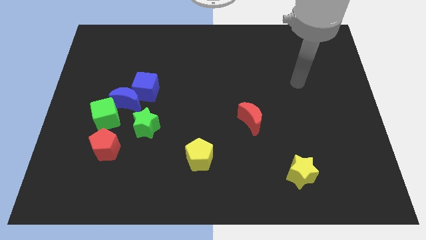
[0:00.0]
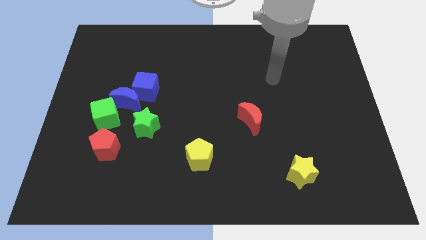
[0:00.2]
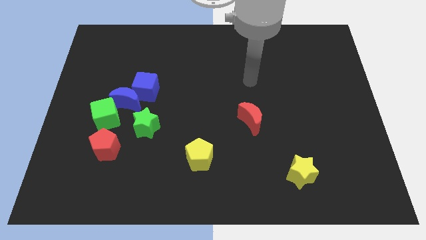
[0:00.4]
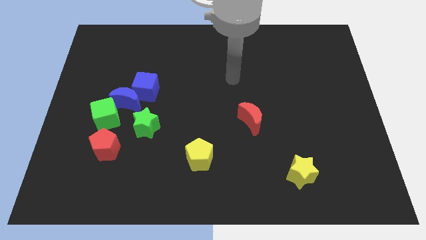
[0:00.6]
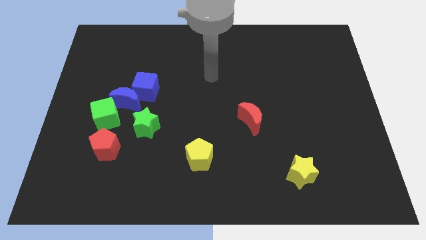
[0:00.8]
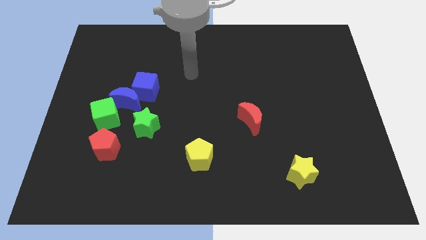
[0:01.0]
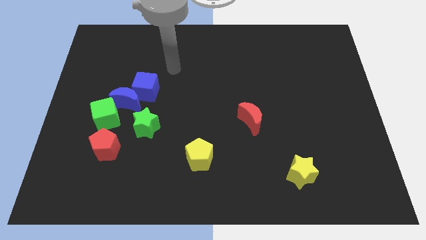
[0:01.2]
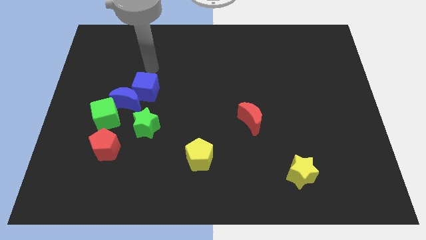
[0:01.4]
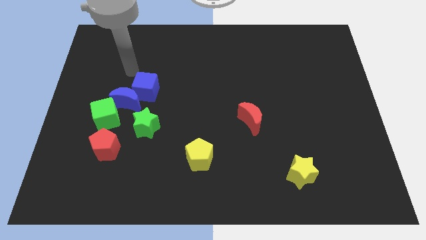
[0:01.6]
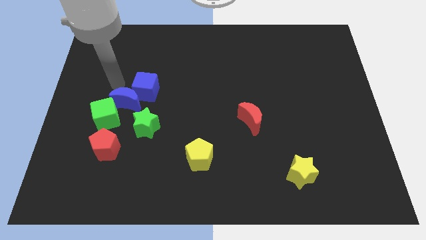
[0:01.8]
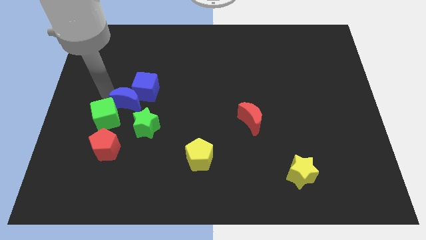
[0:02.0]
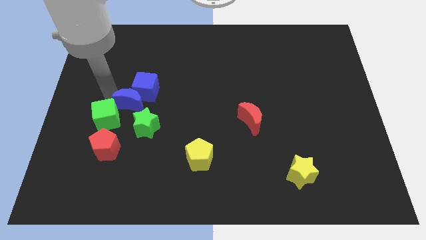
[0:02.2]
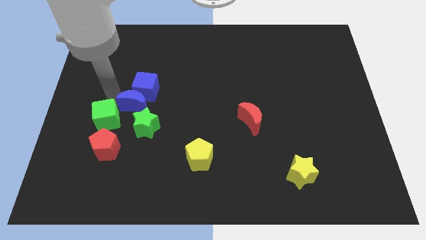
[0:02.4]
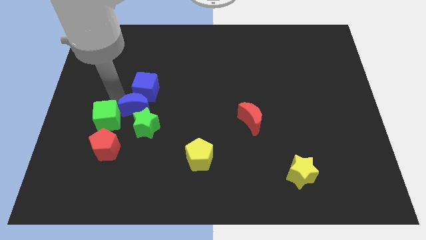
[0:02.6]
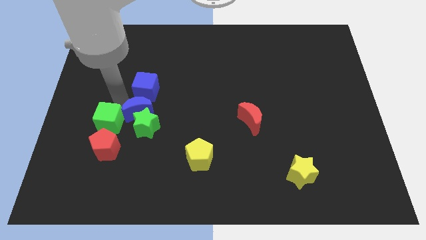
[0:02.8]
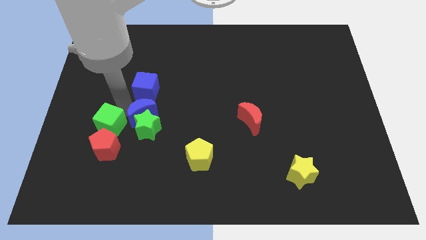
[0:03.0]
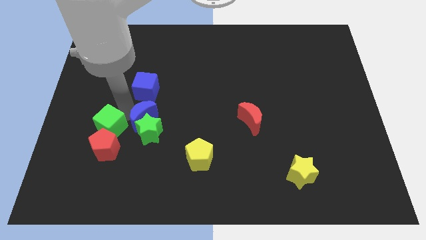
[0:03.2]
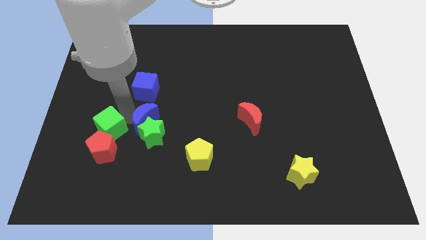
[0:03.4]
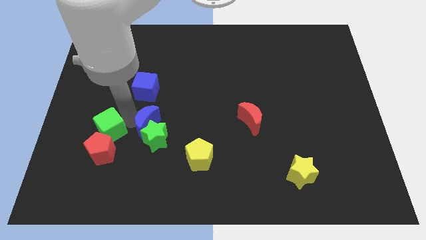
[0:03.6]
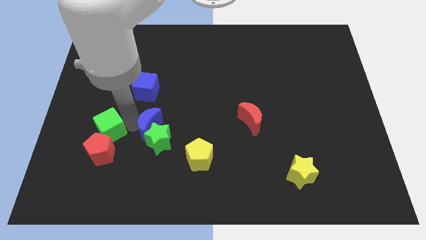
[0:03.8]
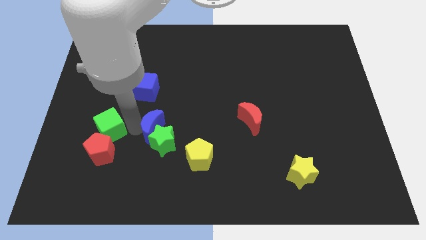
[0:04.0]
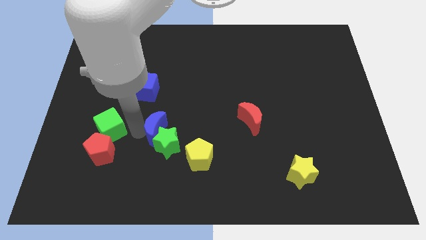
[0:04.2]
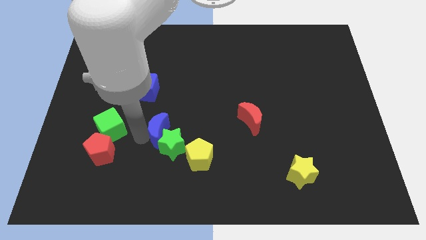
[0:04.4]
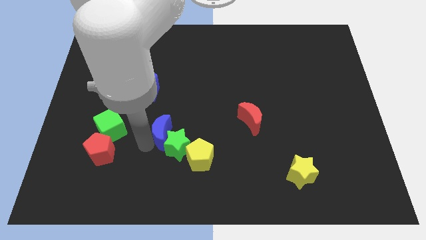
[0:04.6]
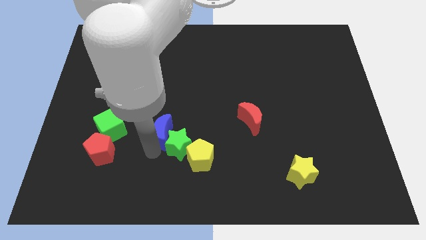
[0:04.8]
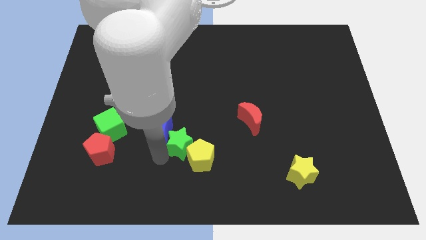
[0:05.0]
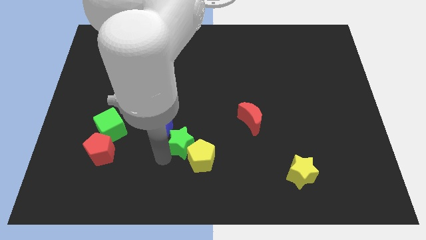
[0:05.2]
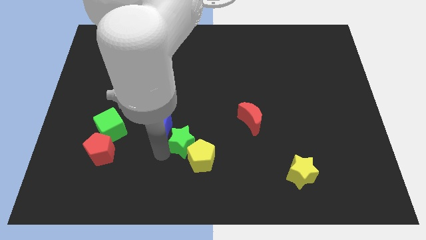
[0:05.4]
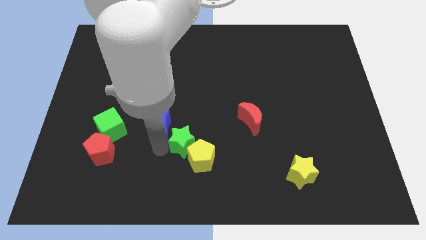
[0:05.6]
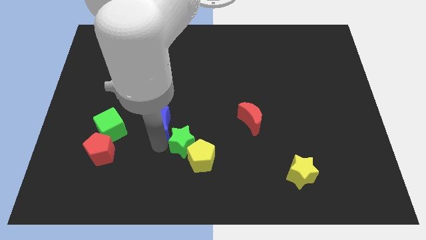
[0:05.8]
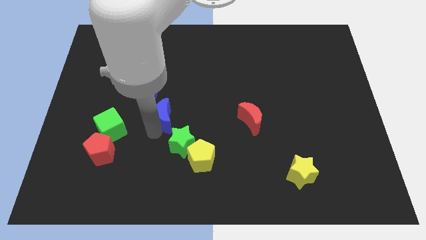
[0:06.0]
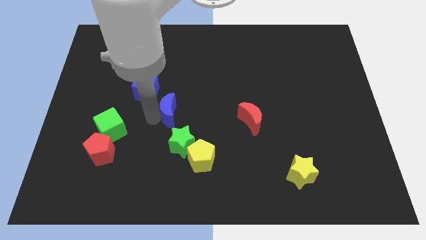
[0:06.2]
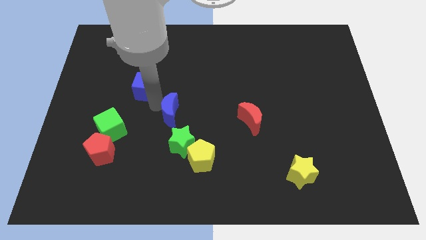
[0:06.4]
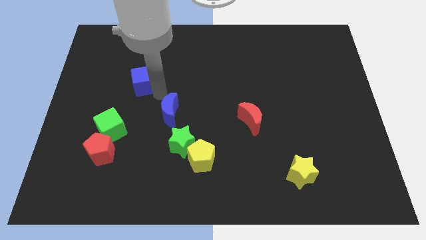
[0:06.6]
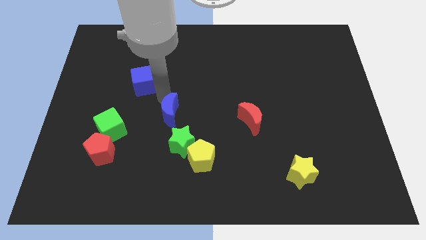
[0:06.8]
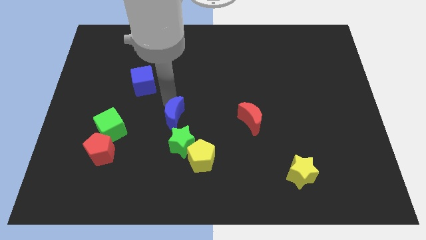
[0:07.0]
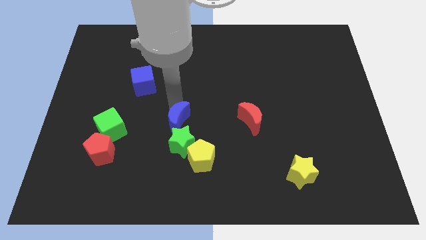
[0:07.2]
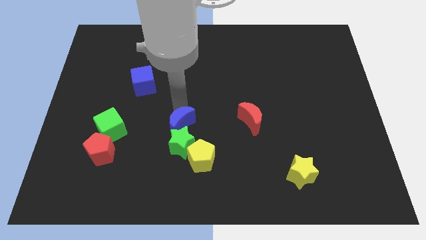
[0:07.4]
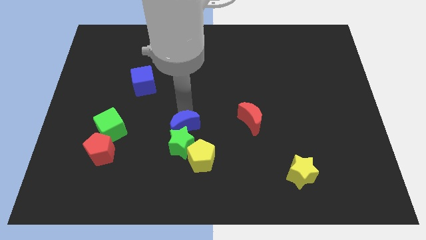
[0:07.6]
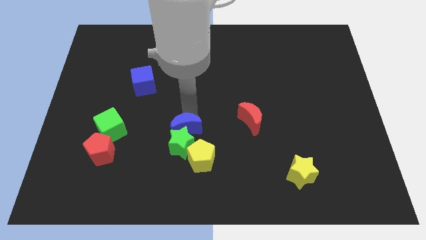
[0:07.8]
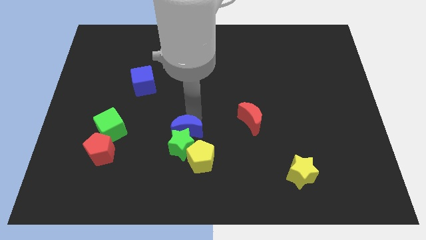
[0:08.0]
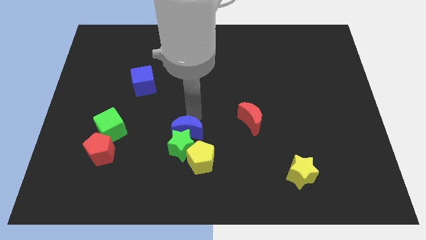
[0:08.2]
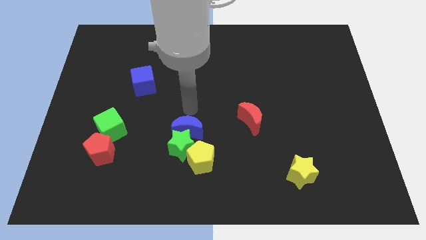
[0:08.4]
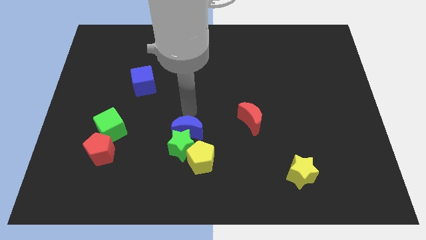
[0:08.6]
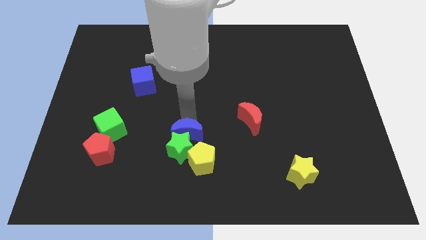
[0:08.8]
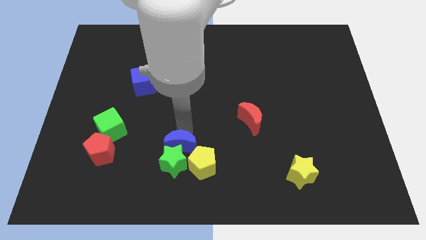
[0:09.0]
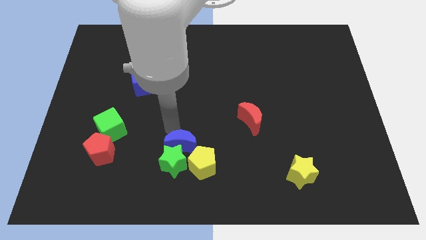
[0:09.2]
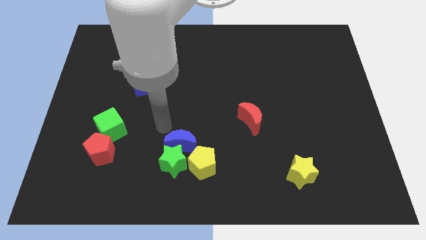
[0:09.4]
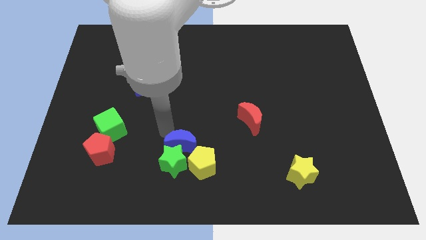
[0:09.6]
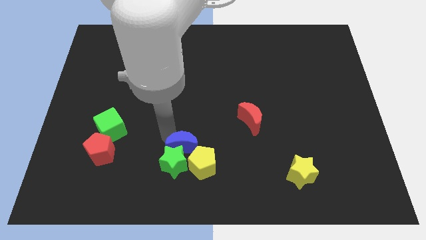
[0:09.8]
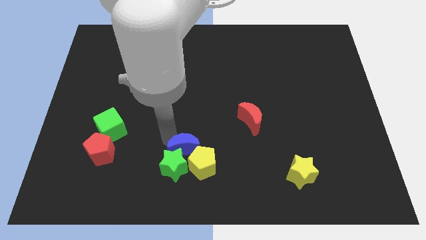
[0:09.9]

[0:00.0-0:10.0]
move the blue moon towards the yellow pentagon

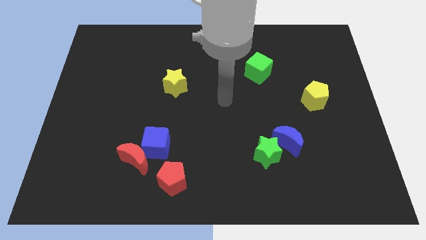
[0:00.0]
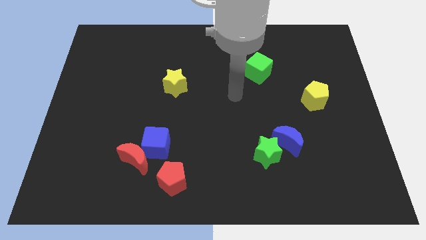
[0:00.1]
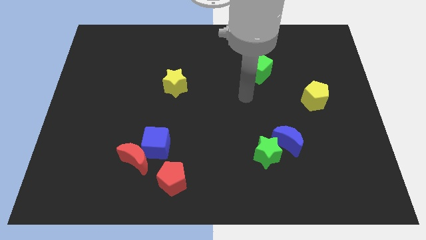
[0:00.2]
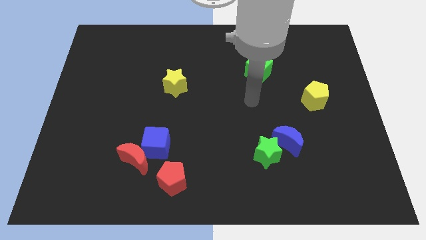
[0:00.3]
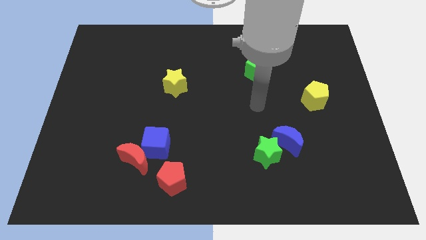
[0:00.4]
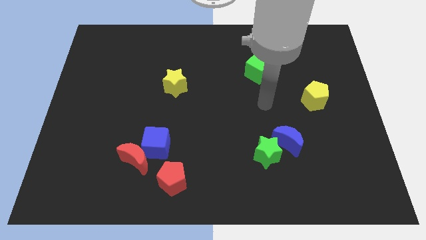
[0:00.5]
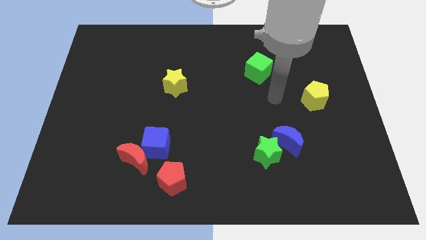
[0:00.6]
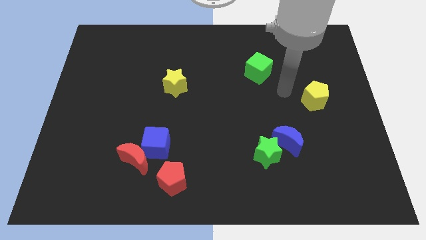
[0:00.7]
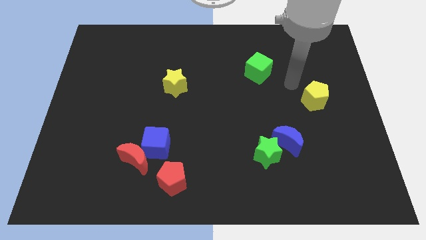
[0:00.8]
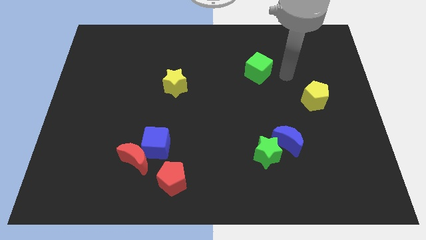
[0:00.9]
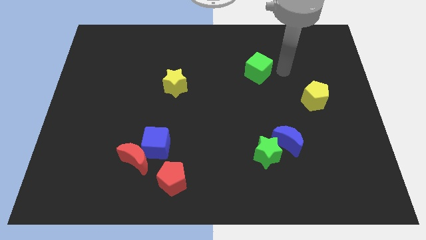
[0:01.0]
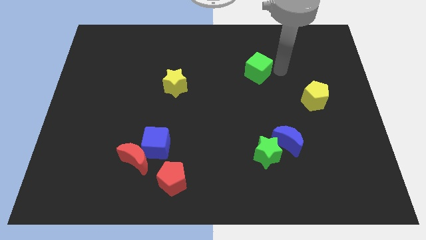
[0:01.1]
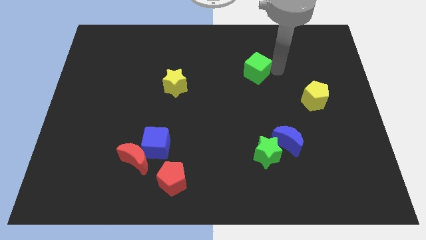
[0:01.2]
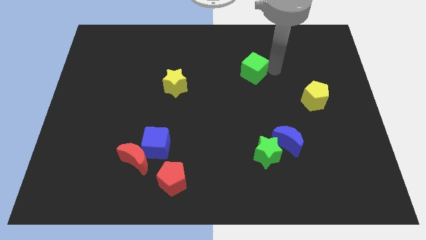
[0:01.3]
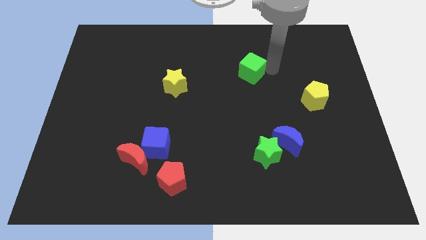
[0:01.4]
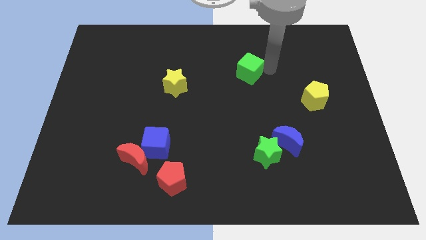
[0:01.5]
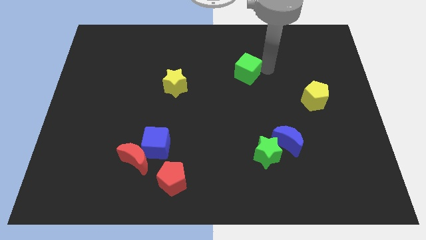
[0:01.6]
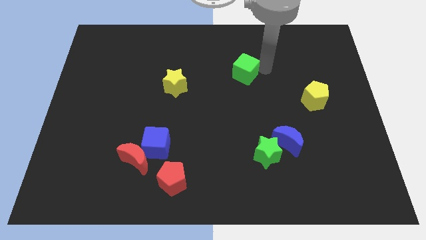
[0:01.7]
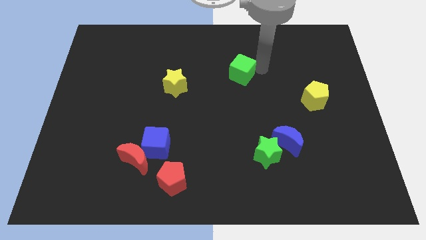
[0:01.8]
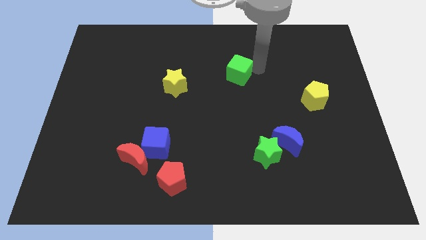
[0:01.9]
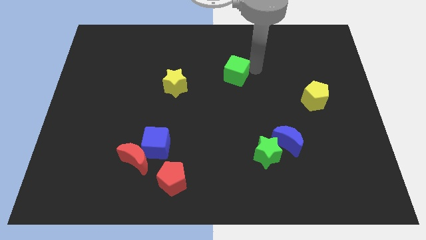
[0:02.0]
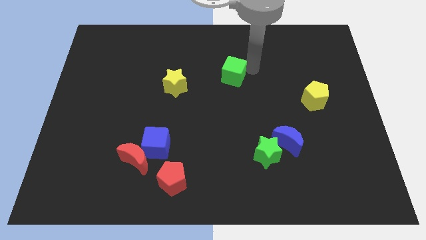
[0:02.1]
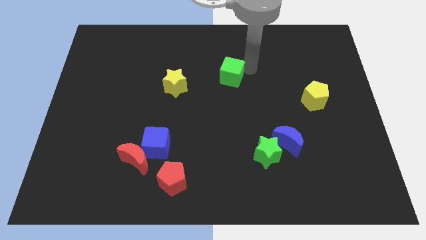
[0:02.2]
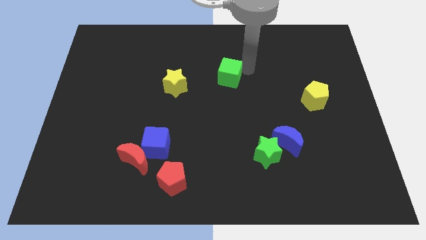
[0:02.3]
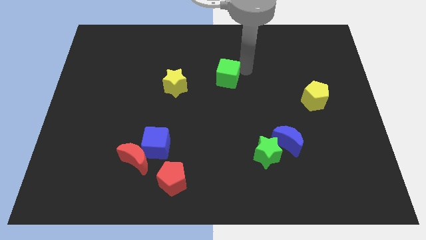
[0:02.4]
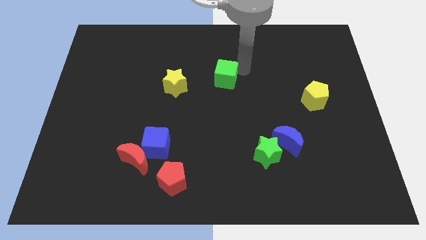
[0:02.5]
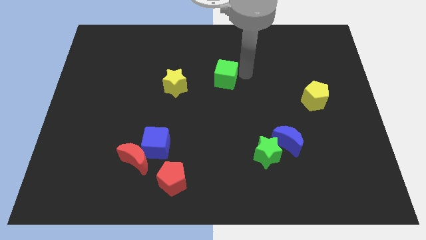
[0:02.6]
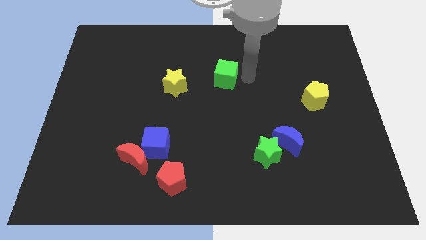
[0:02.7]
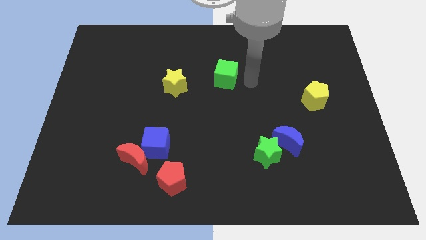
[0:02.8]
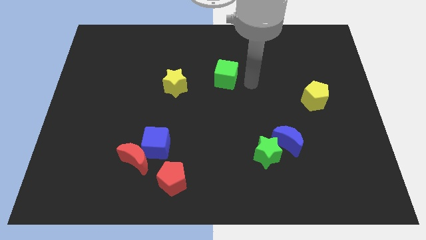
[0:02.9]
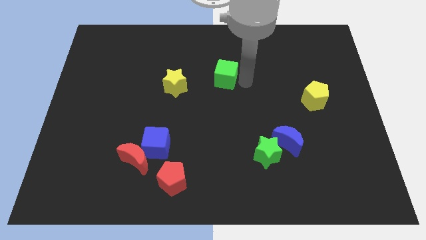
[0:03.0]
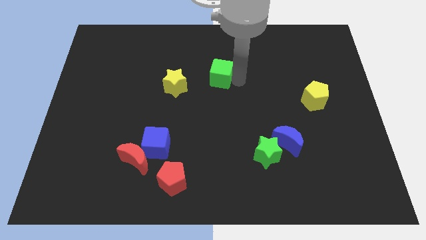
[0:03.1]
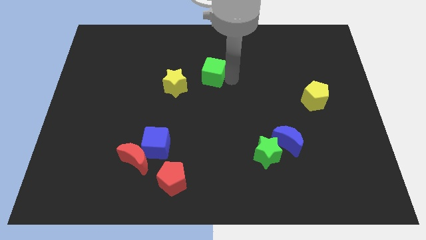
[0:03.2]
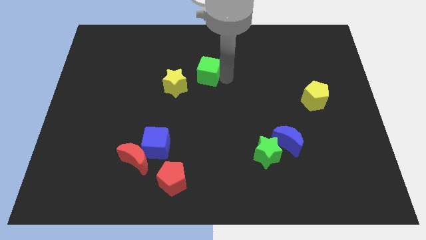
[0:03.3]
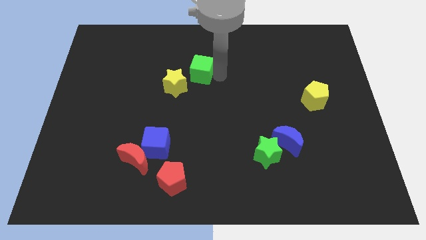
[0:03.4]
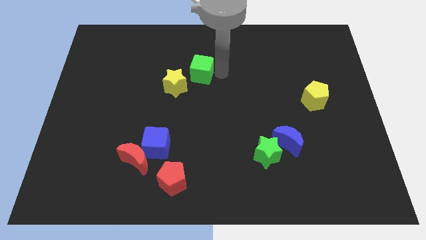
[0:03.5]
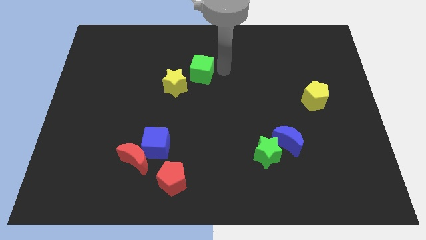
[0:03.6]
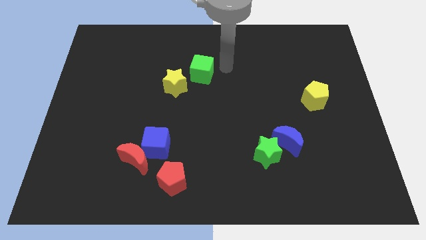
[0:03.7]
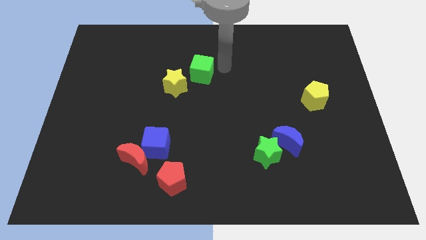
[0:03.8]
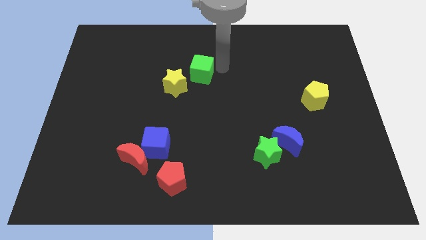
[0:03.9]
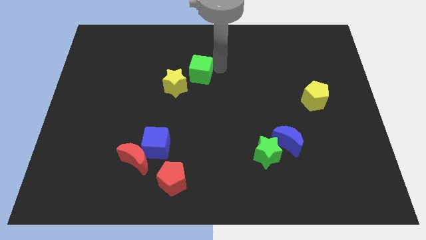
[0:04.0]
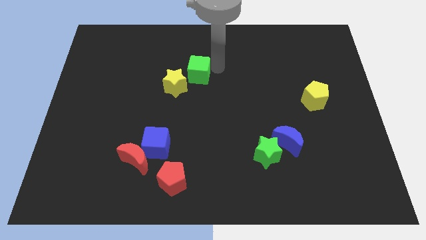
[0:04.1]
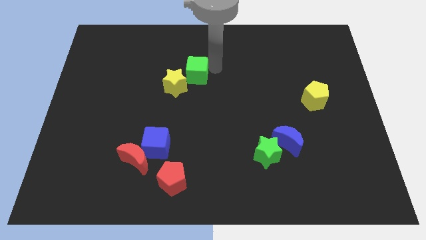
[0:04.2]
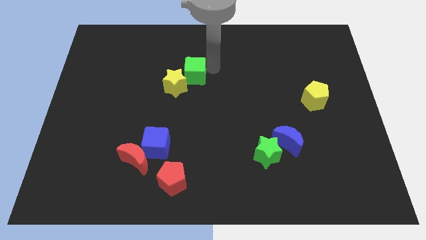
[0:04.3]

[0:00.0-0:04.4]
put the green cube towards the yellow star
